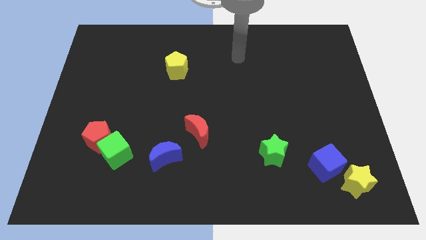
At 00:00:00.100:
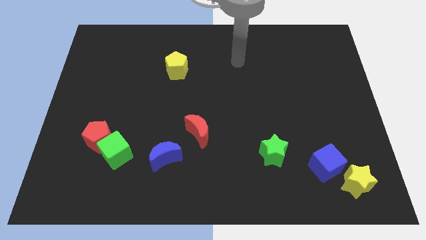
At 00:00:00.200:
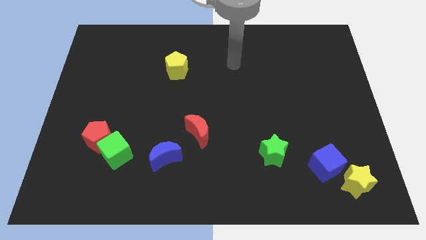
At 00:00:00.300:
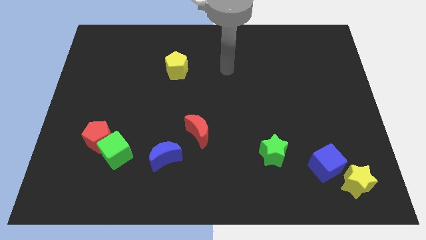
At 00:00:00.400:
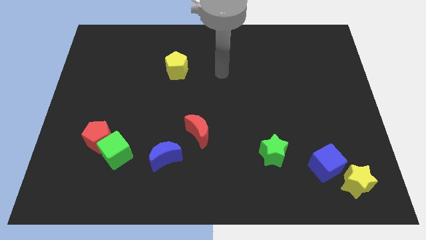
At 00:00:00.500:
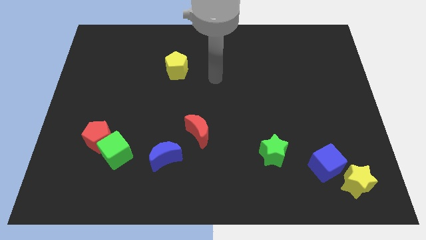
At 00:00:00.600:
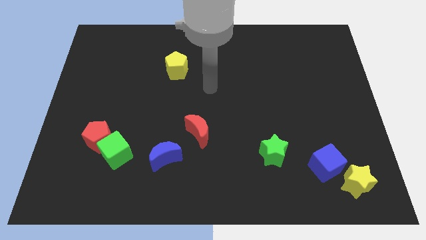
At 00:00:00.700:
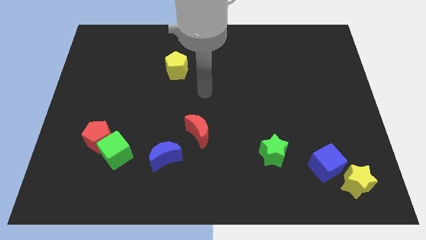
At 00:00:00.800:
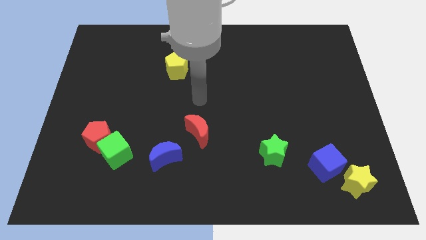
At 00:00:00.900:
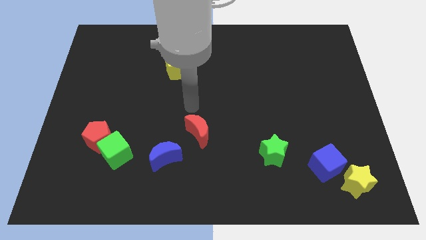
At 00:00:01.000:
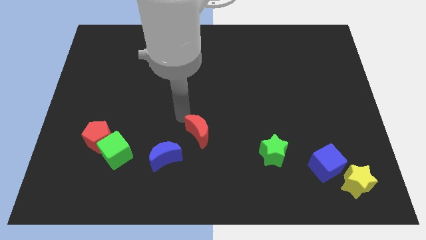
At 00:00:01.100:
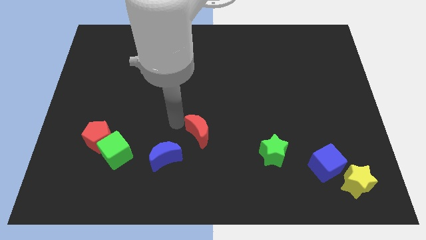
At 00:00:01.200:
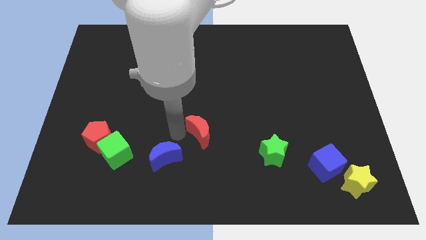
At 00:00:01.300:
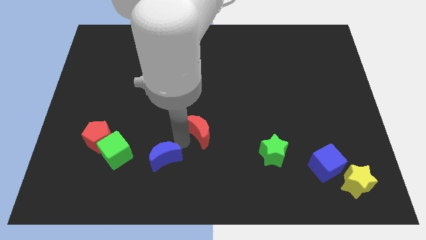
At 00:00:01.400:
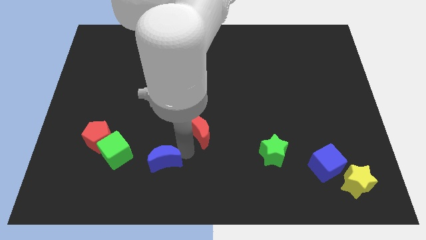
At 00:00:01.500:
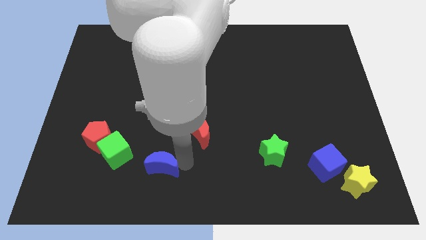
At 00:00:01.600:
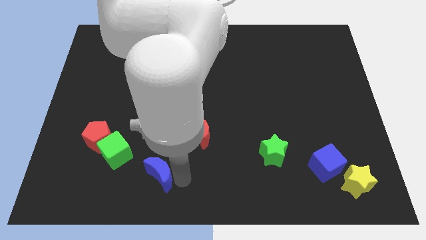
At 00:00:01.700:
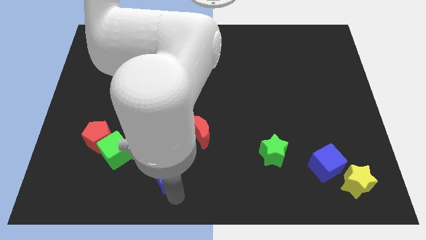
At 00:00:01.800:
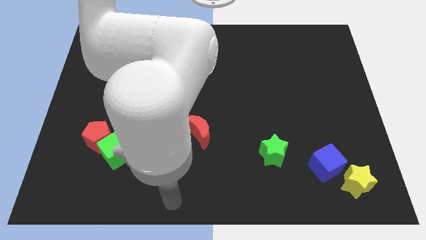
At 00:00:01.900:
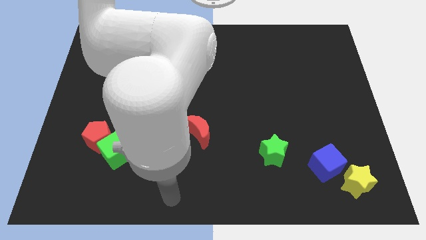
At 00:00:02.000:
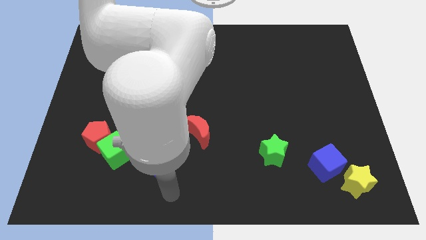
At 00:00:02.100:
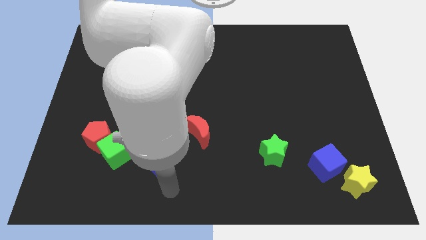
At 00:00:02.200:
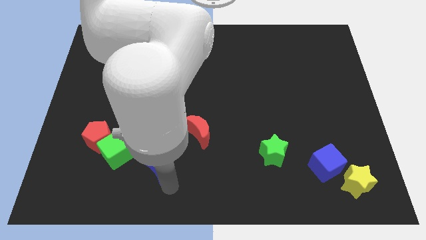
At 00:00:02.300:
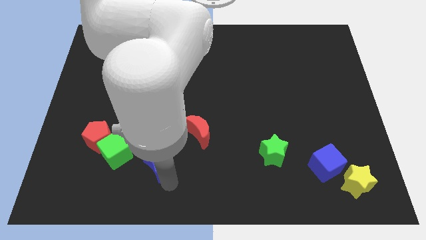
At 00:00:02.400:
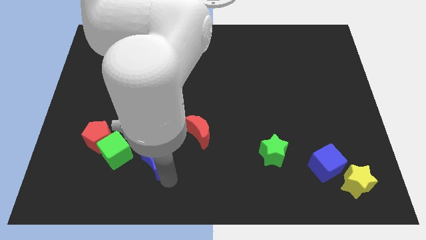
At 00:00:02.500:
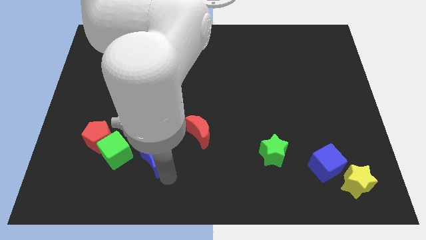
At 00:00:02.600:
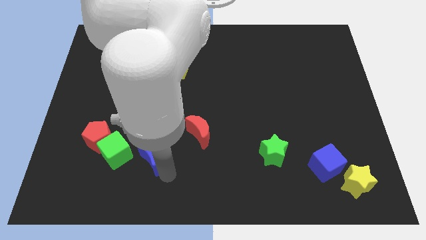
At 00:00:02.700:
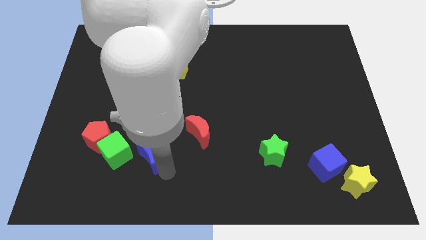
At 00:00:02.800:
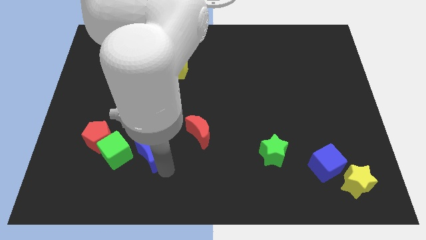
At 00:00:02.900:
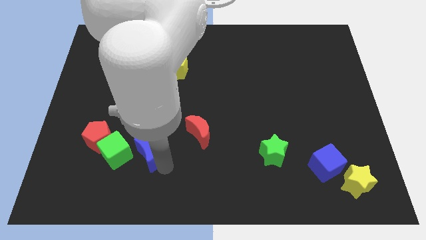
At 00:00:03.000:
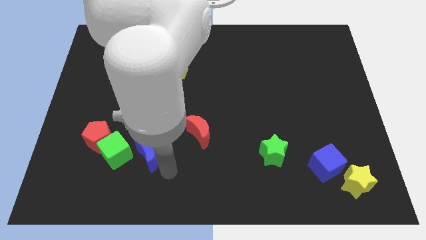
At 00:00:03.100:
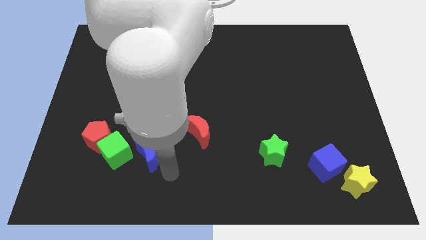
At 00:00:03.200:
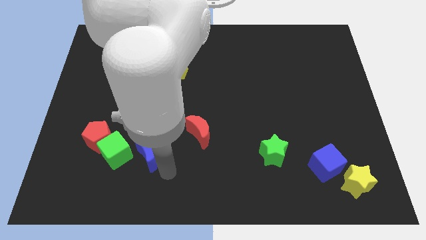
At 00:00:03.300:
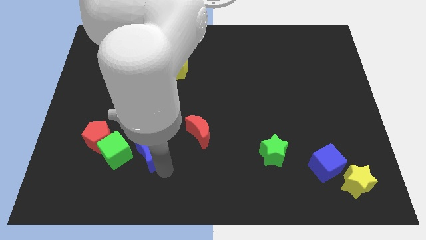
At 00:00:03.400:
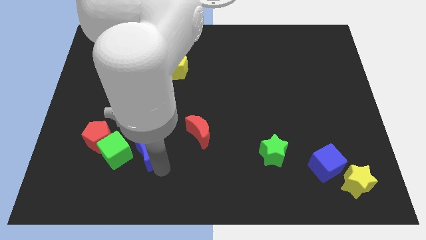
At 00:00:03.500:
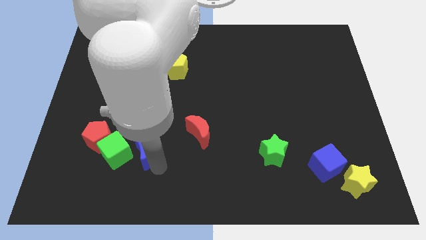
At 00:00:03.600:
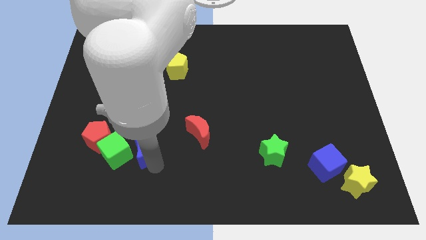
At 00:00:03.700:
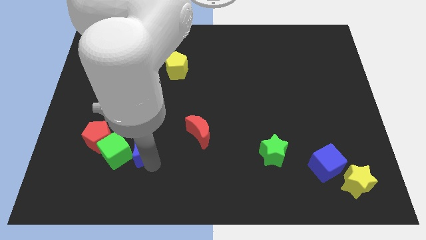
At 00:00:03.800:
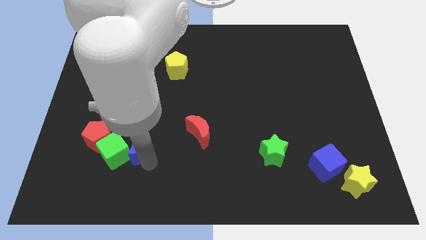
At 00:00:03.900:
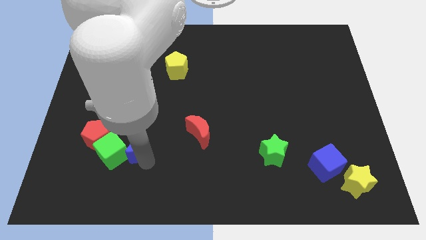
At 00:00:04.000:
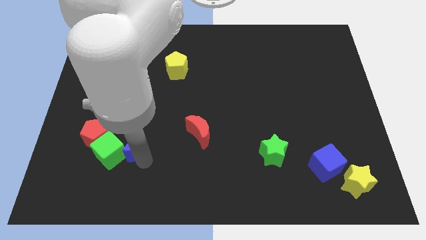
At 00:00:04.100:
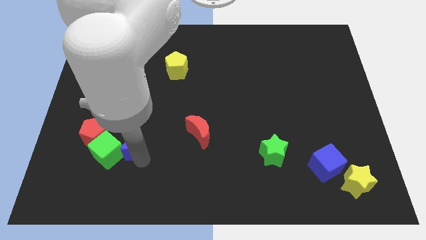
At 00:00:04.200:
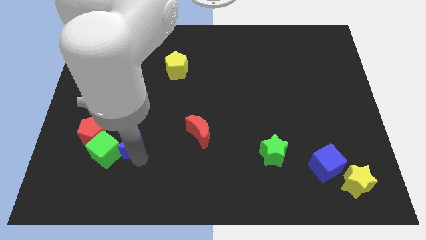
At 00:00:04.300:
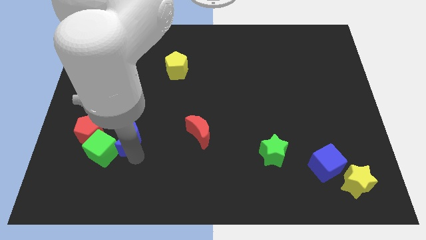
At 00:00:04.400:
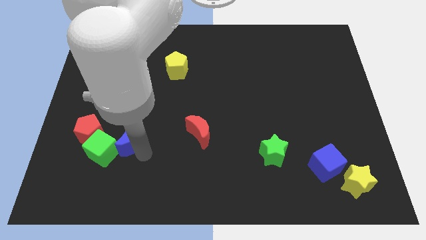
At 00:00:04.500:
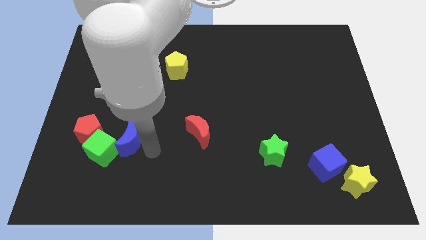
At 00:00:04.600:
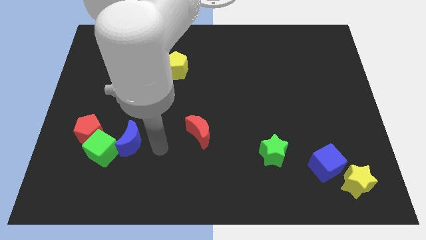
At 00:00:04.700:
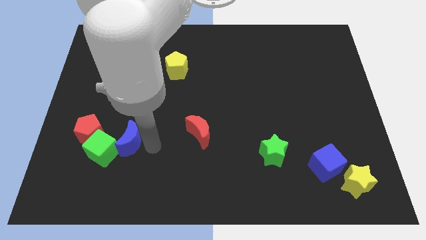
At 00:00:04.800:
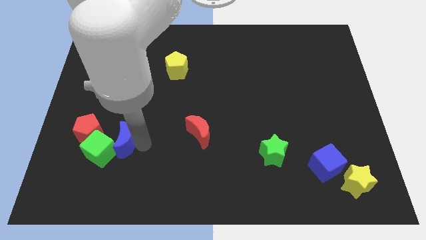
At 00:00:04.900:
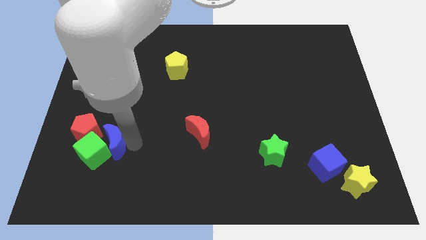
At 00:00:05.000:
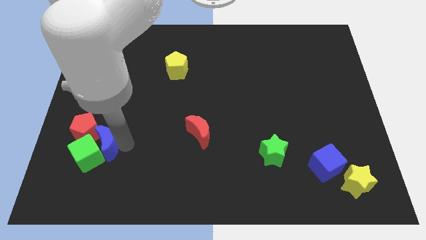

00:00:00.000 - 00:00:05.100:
slide the blue moon next to the red pentagon

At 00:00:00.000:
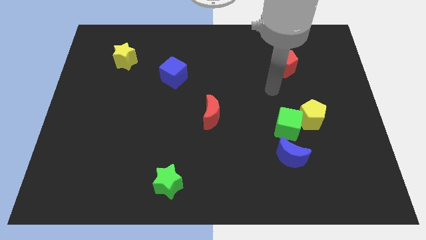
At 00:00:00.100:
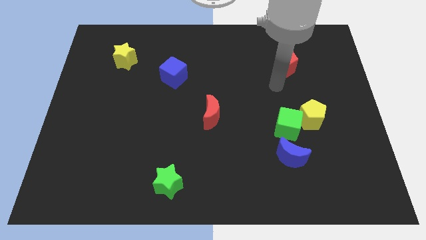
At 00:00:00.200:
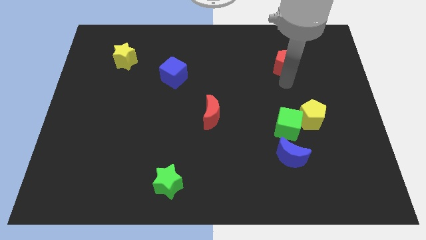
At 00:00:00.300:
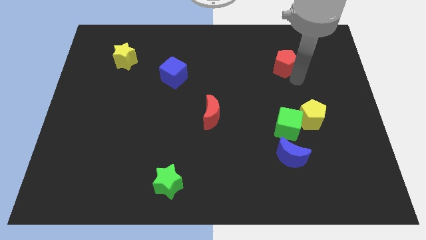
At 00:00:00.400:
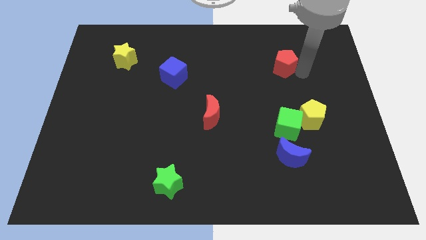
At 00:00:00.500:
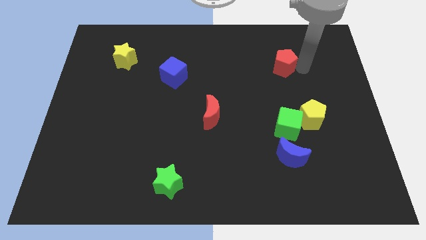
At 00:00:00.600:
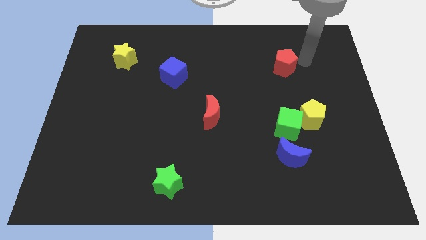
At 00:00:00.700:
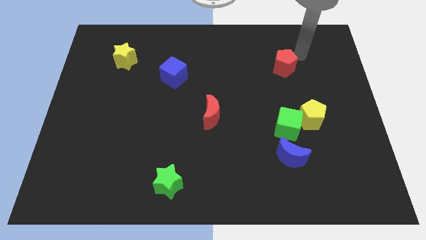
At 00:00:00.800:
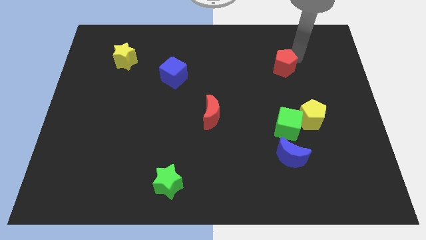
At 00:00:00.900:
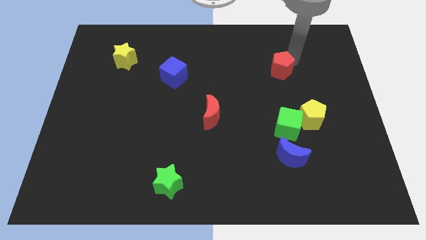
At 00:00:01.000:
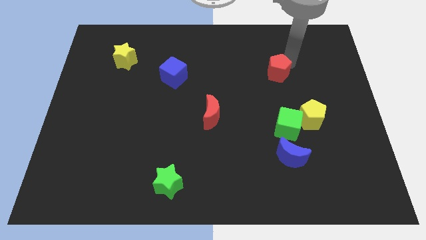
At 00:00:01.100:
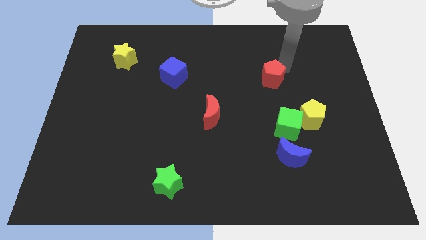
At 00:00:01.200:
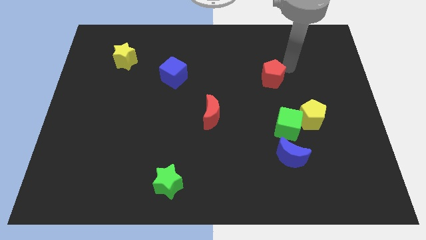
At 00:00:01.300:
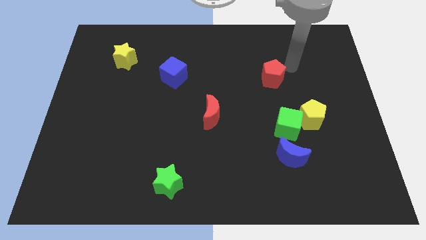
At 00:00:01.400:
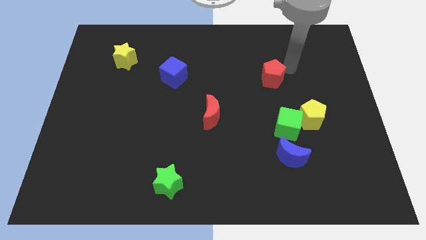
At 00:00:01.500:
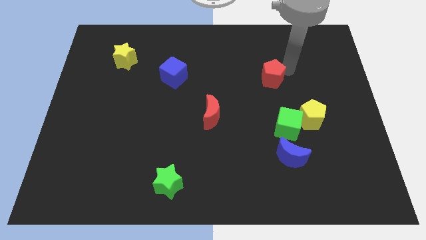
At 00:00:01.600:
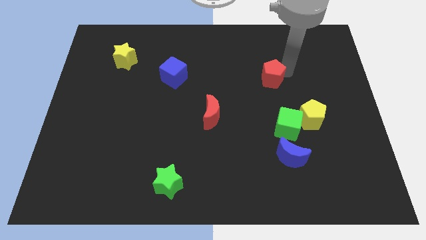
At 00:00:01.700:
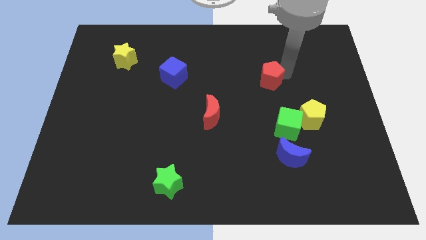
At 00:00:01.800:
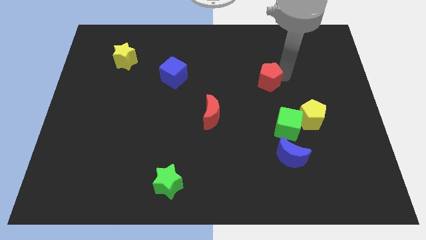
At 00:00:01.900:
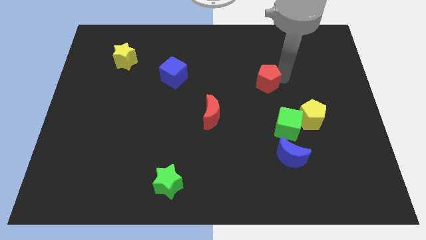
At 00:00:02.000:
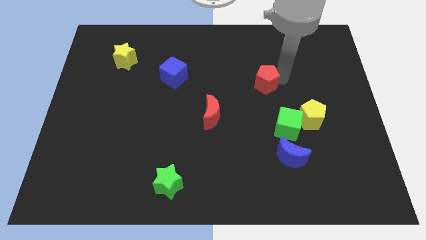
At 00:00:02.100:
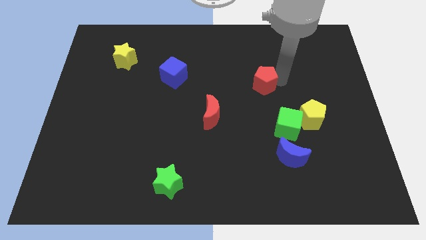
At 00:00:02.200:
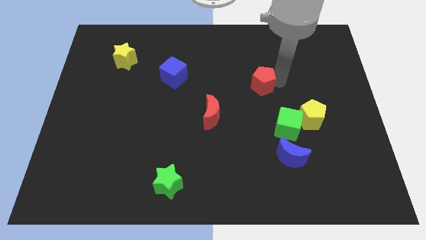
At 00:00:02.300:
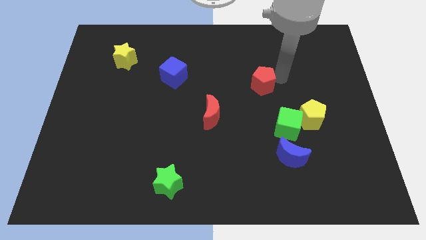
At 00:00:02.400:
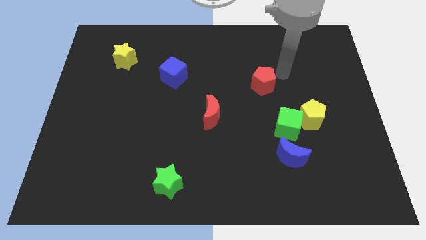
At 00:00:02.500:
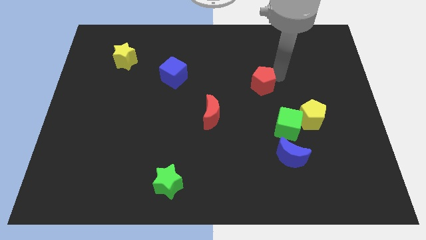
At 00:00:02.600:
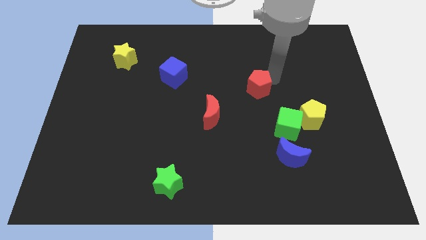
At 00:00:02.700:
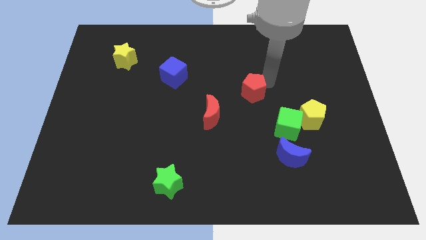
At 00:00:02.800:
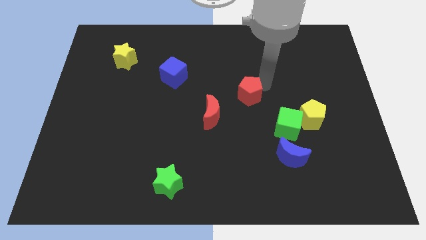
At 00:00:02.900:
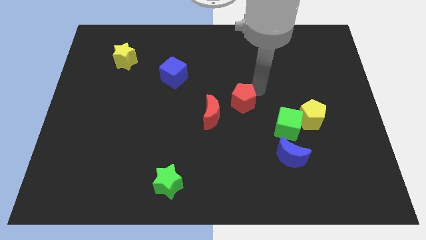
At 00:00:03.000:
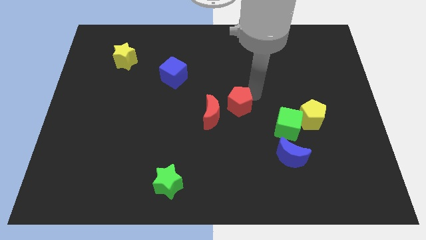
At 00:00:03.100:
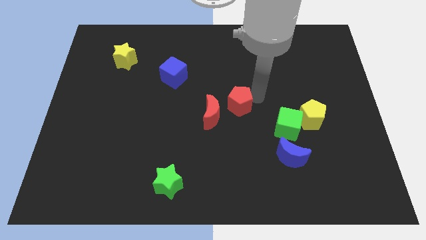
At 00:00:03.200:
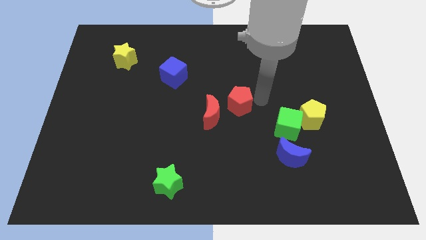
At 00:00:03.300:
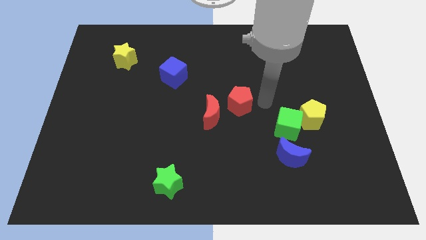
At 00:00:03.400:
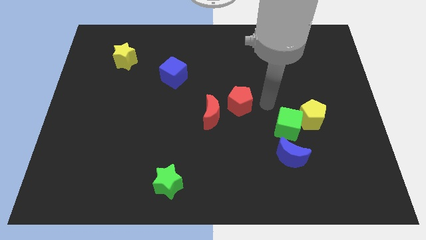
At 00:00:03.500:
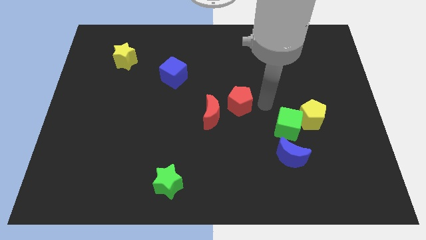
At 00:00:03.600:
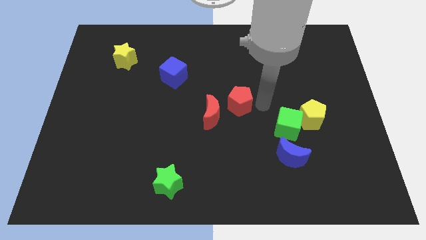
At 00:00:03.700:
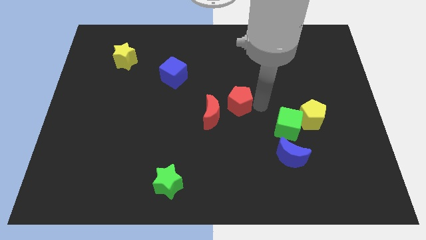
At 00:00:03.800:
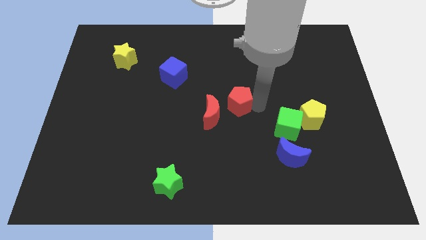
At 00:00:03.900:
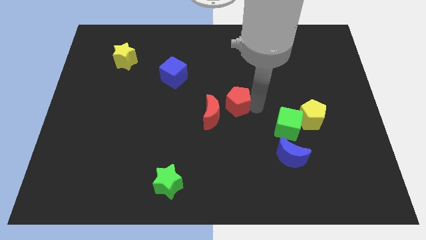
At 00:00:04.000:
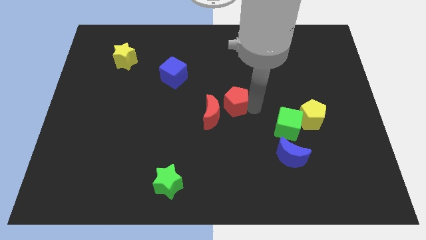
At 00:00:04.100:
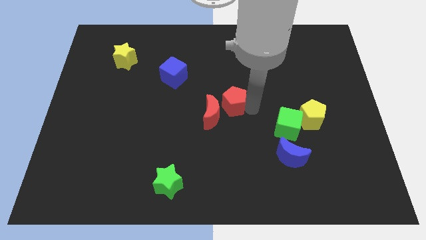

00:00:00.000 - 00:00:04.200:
push the red pentagon to the red moon
